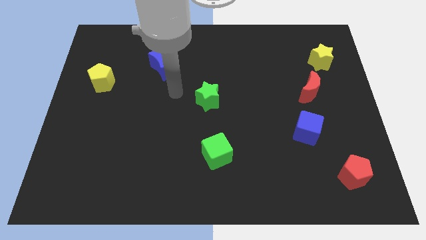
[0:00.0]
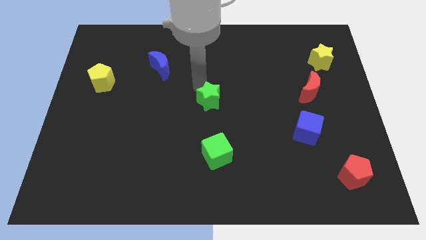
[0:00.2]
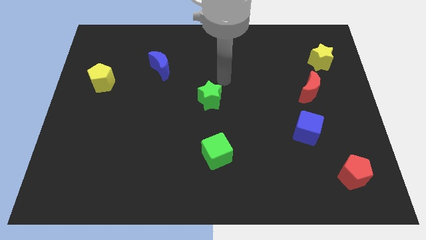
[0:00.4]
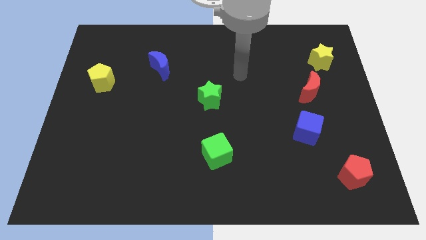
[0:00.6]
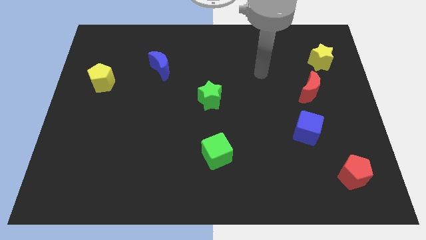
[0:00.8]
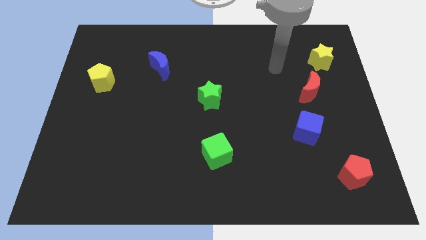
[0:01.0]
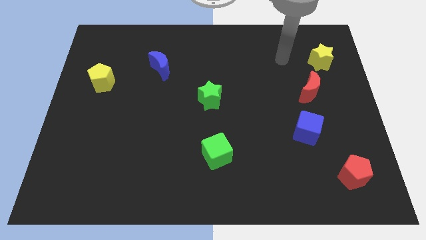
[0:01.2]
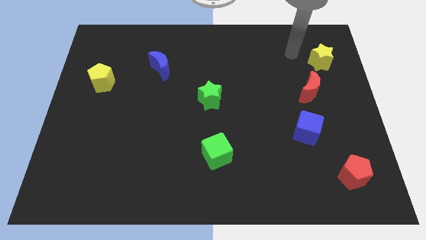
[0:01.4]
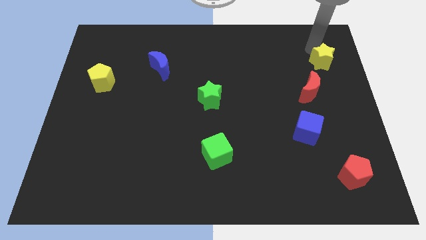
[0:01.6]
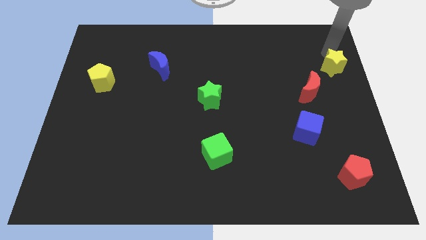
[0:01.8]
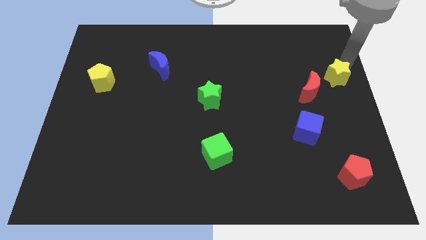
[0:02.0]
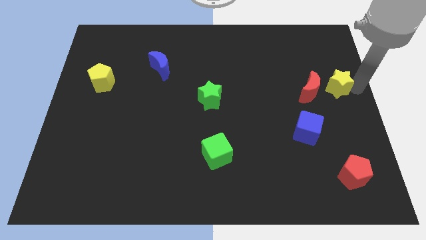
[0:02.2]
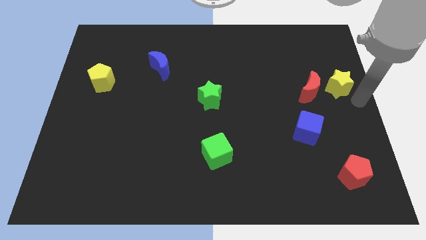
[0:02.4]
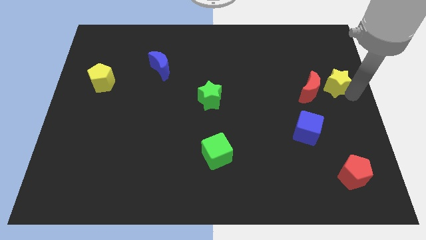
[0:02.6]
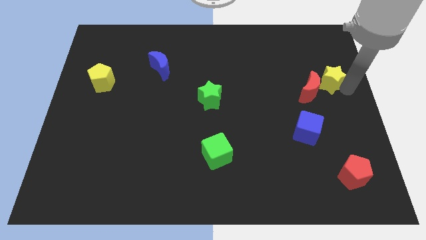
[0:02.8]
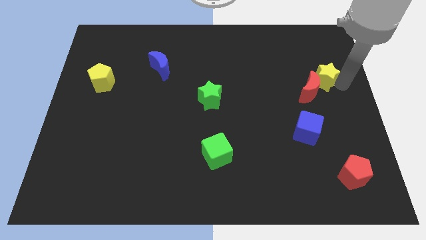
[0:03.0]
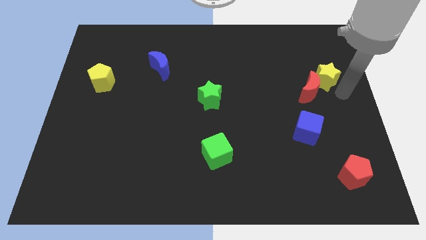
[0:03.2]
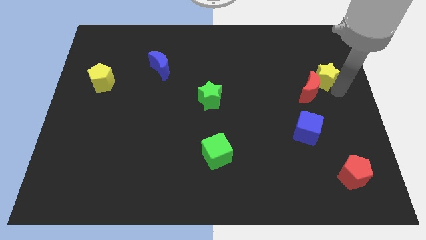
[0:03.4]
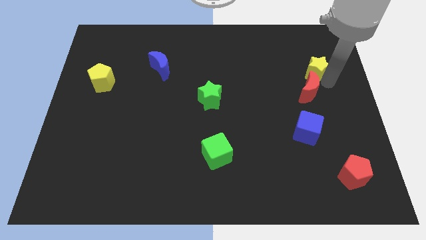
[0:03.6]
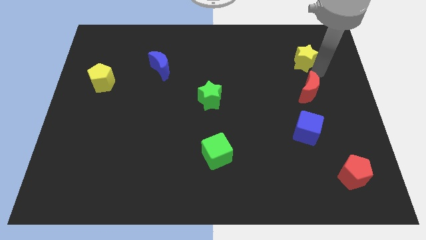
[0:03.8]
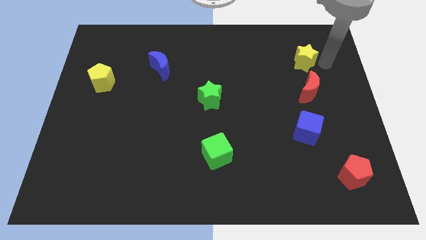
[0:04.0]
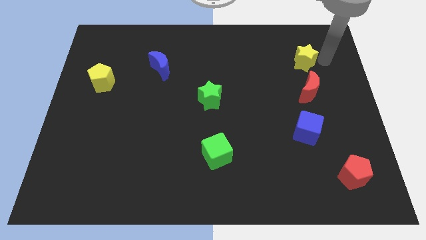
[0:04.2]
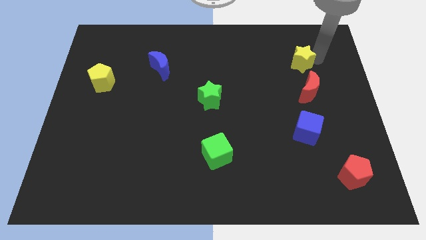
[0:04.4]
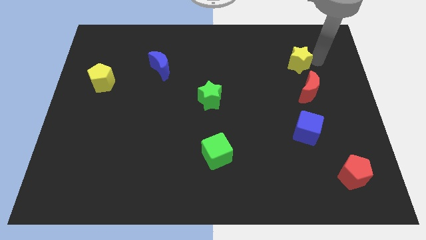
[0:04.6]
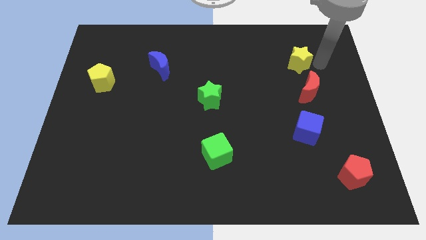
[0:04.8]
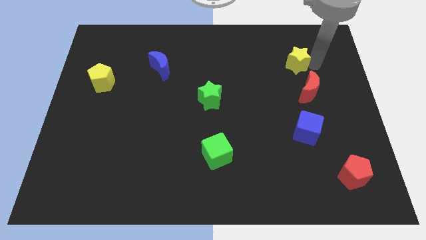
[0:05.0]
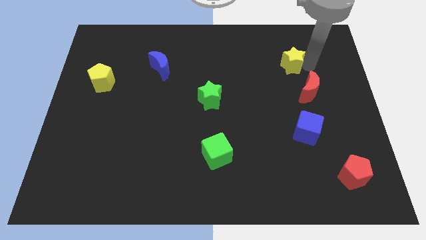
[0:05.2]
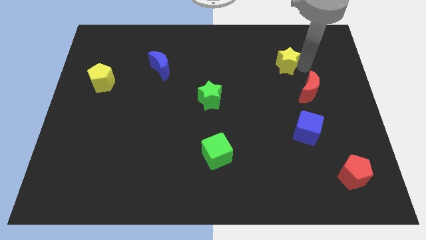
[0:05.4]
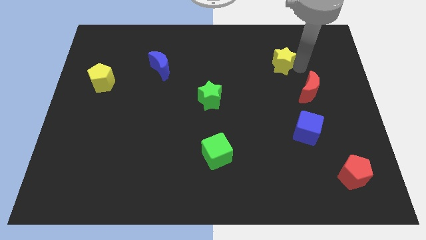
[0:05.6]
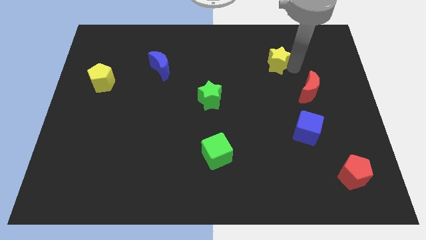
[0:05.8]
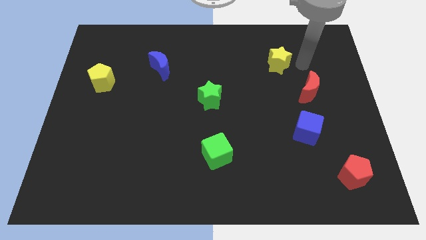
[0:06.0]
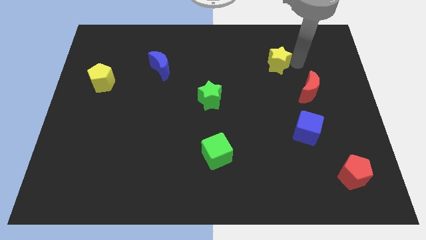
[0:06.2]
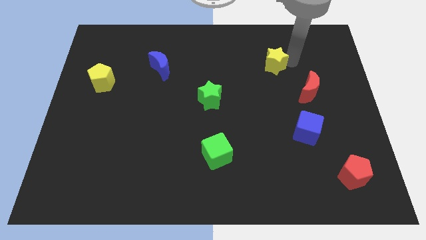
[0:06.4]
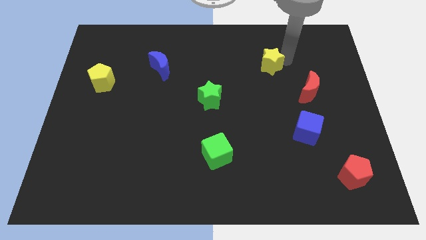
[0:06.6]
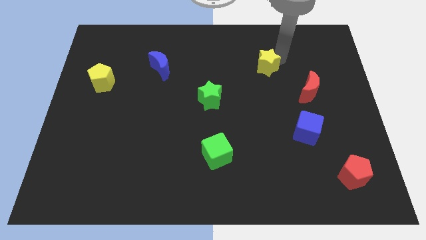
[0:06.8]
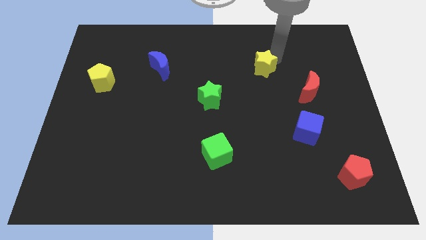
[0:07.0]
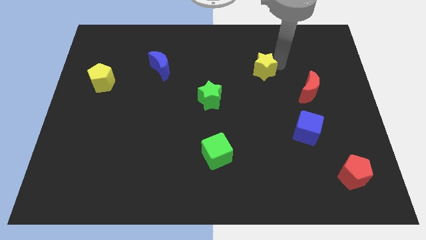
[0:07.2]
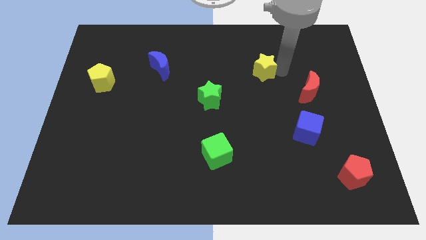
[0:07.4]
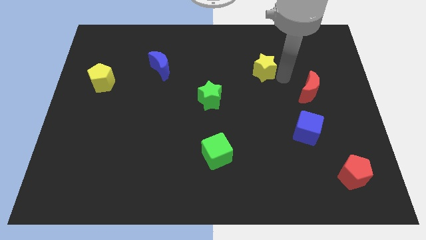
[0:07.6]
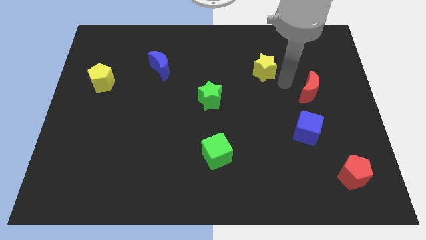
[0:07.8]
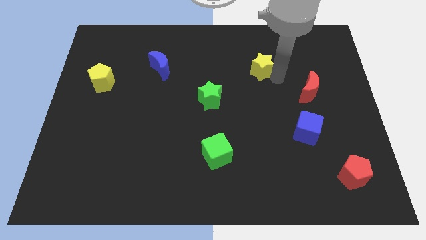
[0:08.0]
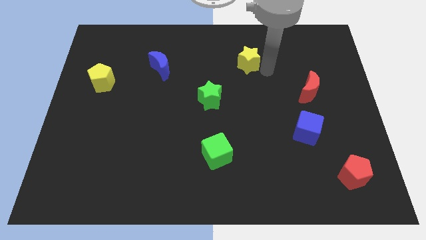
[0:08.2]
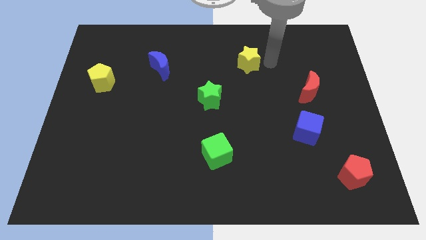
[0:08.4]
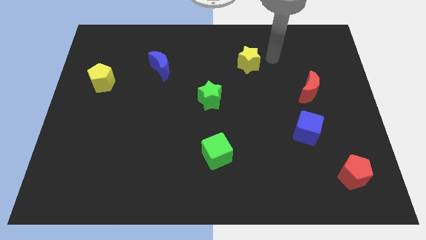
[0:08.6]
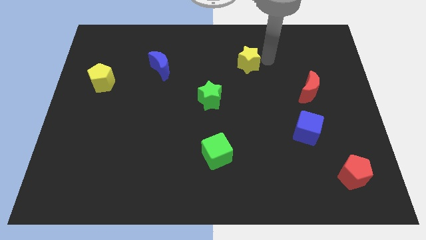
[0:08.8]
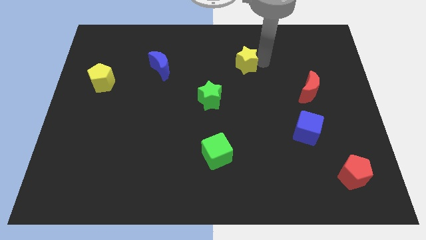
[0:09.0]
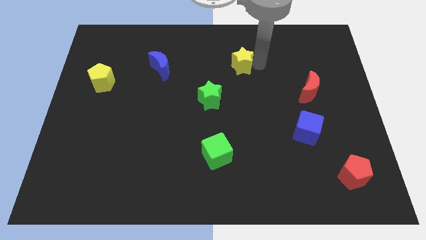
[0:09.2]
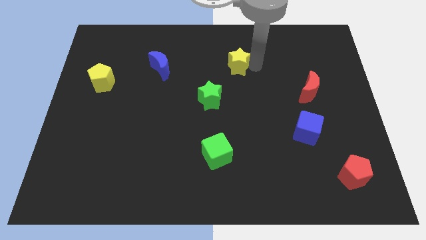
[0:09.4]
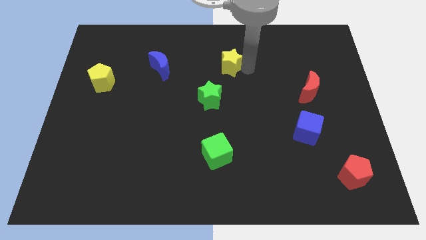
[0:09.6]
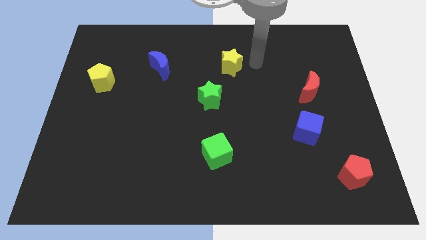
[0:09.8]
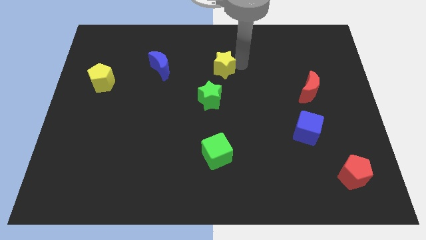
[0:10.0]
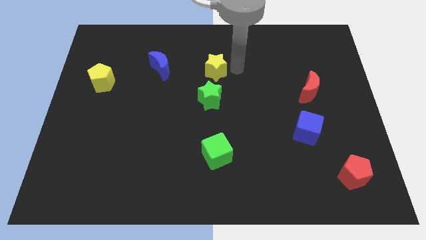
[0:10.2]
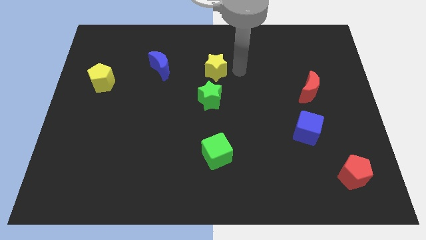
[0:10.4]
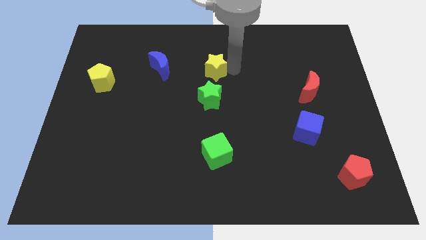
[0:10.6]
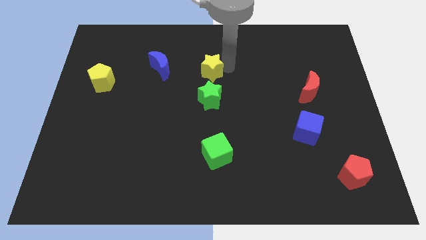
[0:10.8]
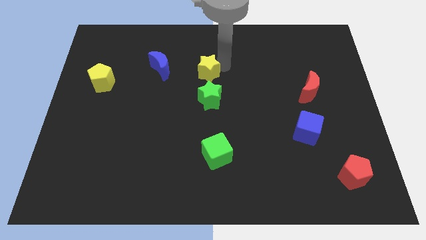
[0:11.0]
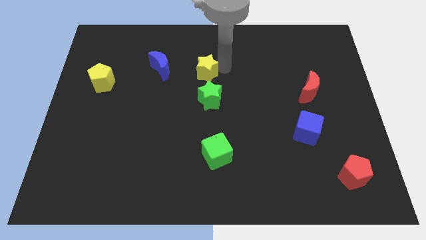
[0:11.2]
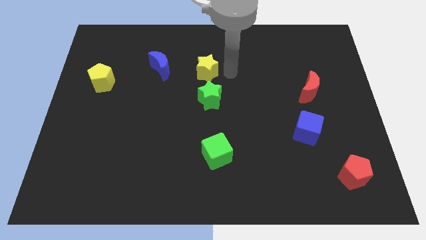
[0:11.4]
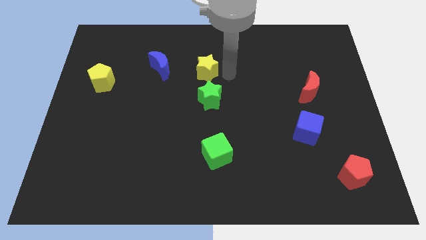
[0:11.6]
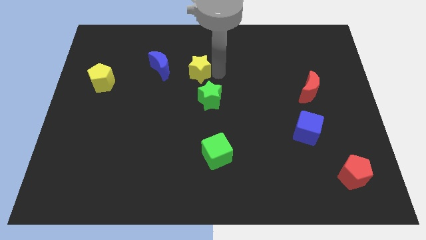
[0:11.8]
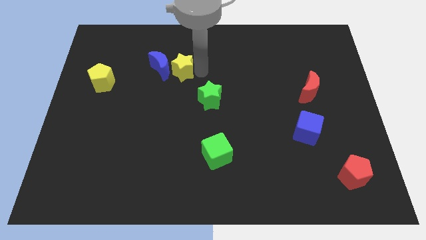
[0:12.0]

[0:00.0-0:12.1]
push the yellow star towards the blue moon

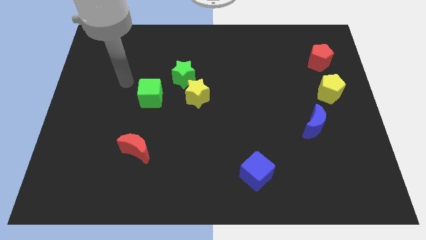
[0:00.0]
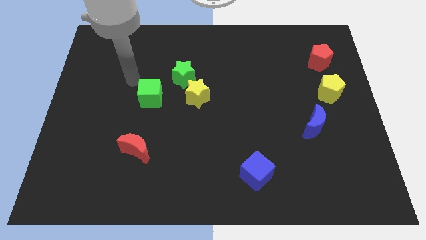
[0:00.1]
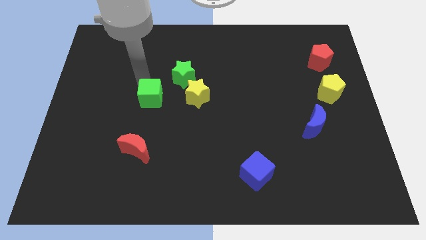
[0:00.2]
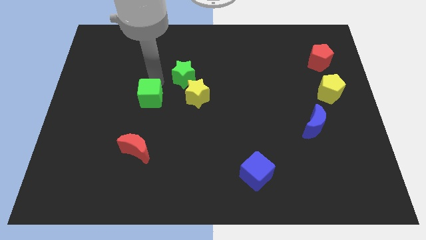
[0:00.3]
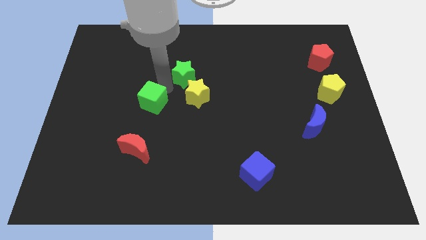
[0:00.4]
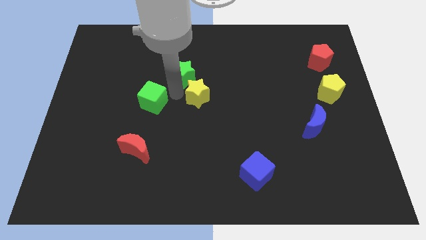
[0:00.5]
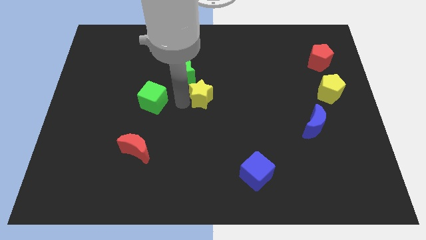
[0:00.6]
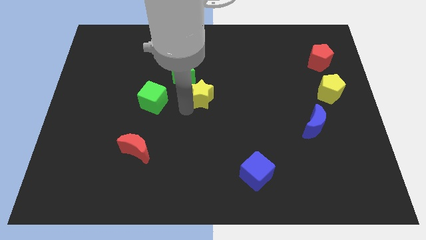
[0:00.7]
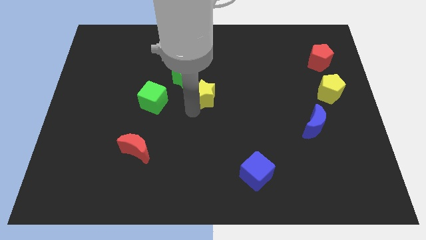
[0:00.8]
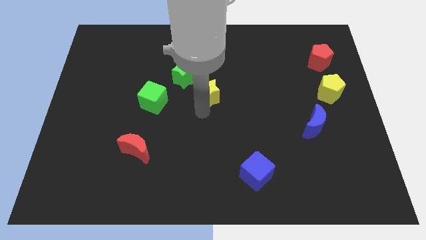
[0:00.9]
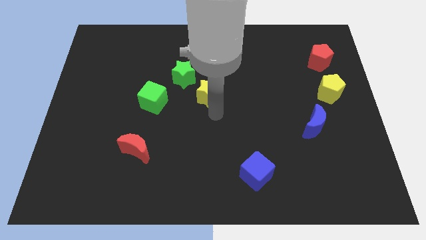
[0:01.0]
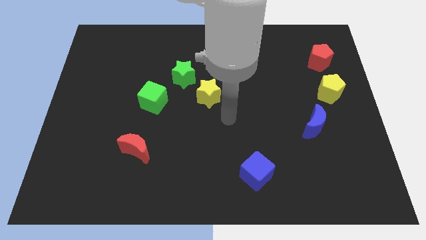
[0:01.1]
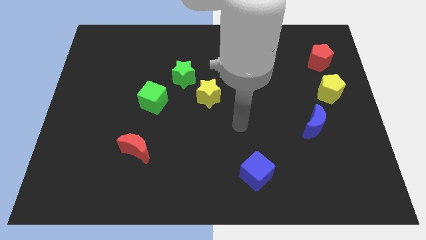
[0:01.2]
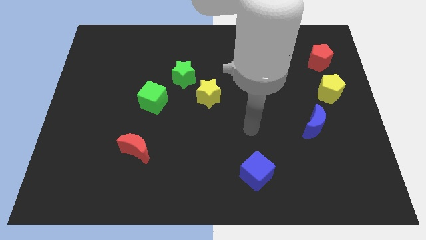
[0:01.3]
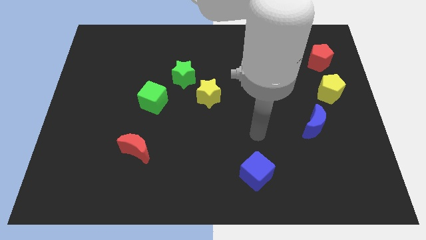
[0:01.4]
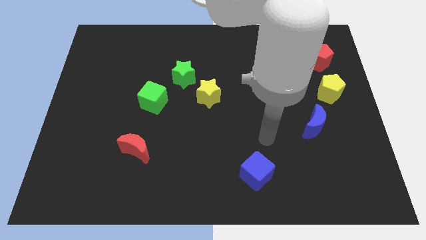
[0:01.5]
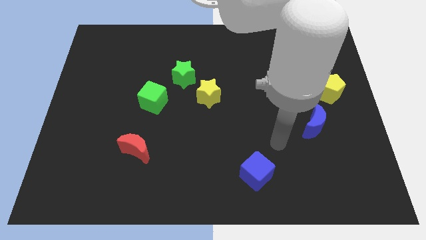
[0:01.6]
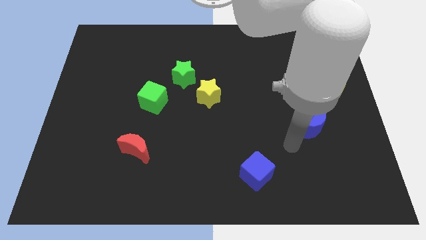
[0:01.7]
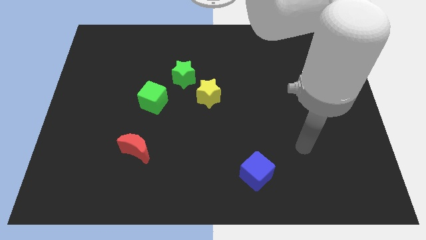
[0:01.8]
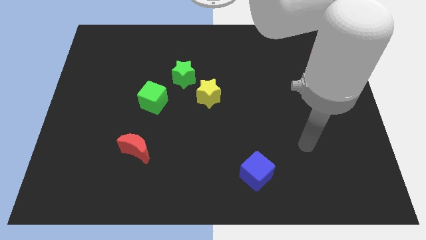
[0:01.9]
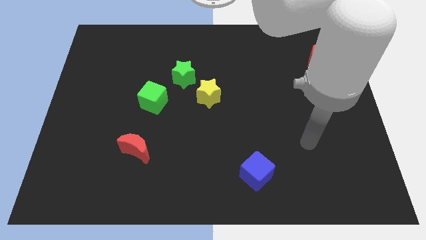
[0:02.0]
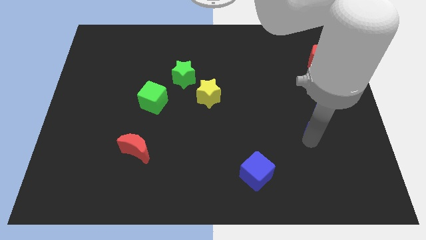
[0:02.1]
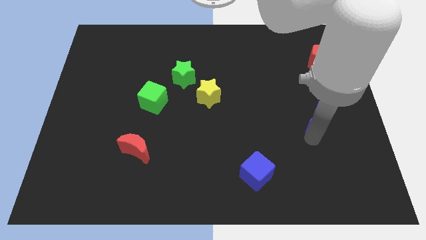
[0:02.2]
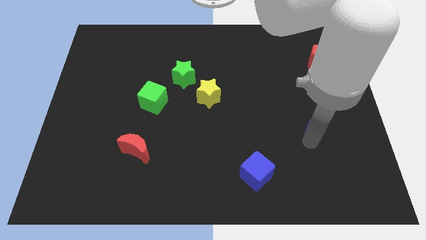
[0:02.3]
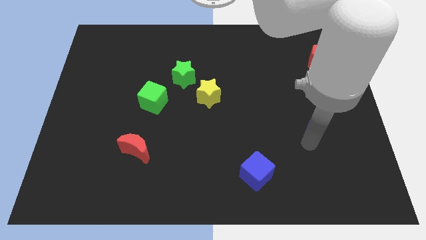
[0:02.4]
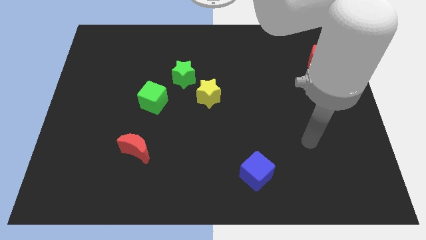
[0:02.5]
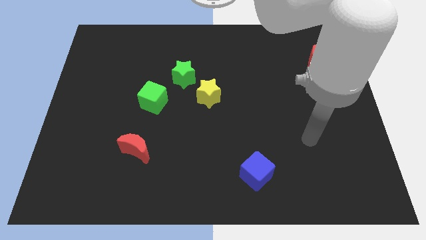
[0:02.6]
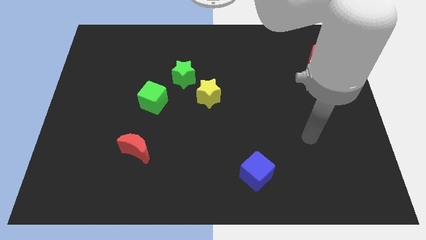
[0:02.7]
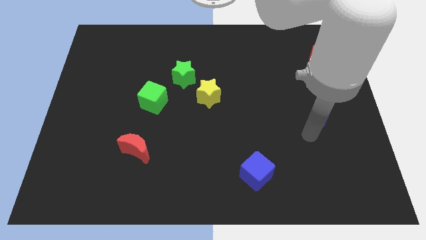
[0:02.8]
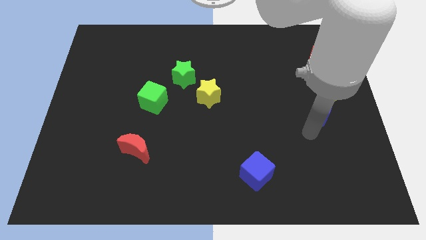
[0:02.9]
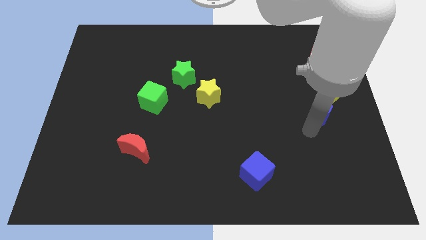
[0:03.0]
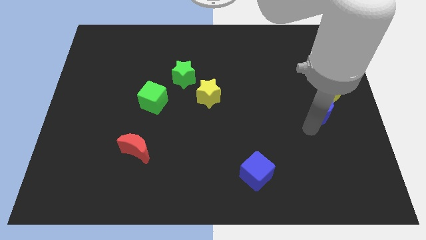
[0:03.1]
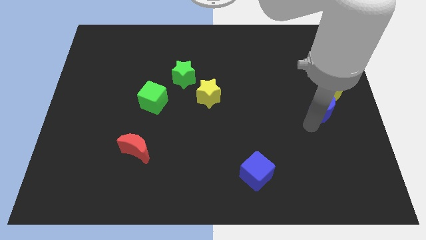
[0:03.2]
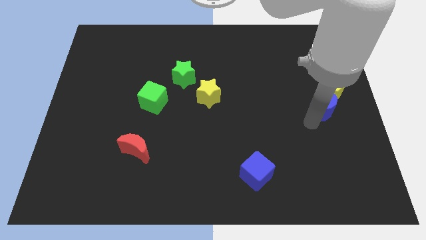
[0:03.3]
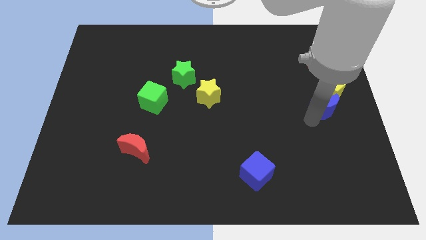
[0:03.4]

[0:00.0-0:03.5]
move the blue moon close to the yellow pentagon
